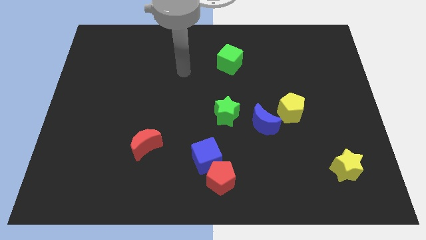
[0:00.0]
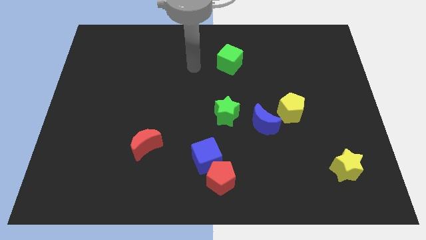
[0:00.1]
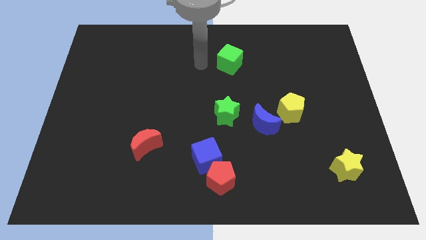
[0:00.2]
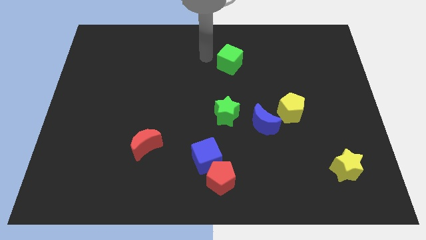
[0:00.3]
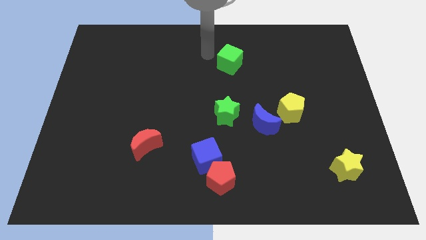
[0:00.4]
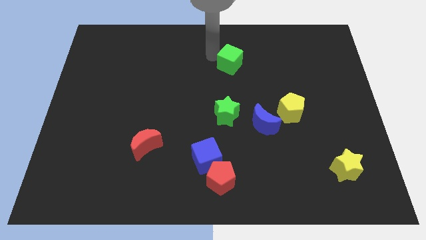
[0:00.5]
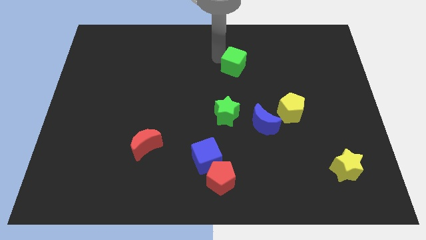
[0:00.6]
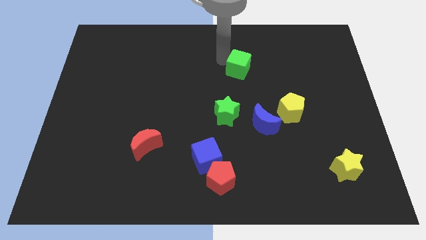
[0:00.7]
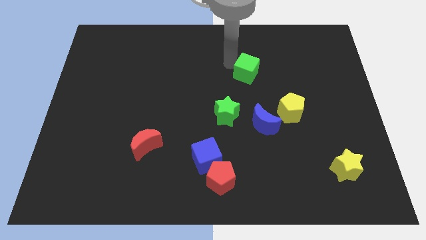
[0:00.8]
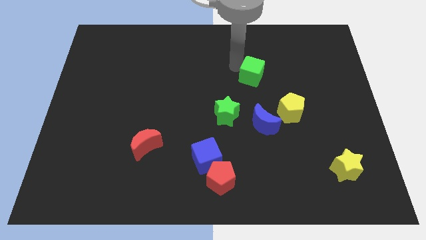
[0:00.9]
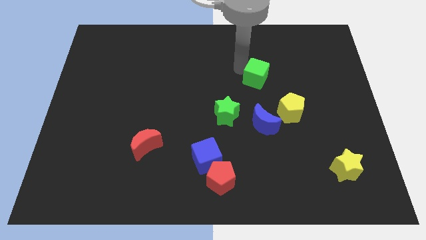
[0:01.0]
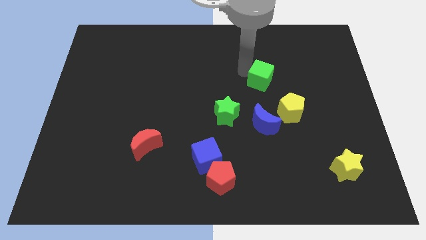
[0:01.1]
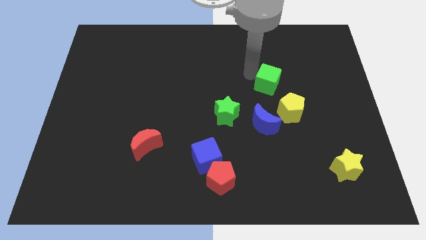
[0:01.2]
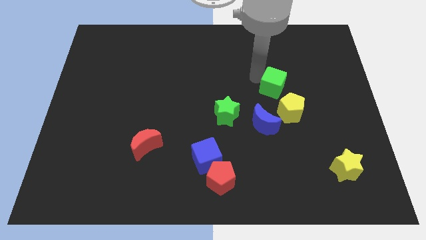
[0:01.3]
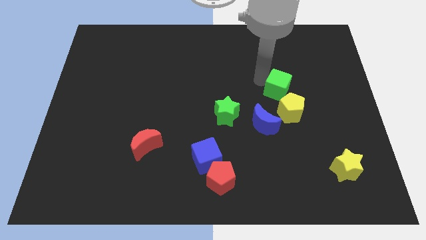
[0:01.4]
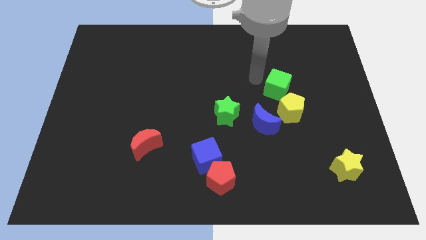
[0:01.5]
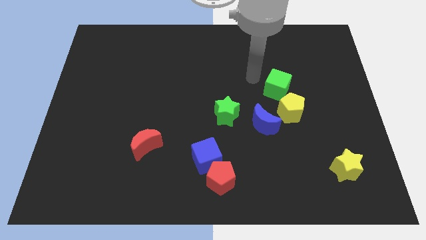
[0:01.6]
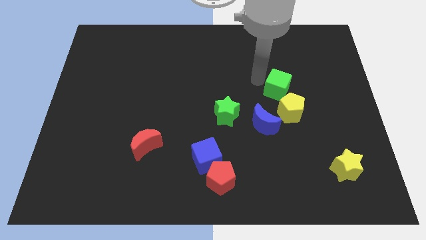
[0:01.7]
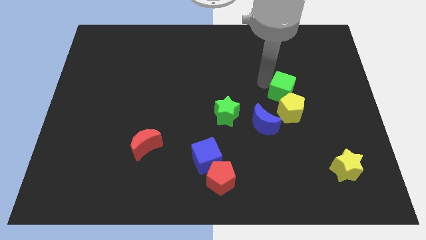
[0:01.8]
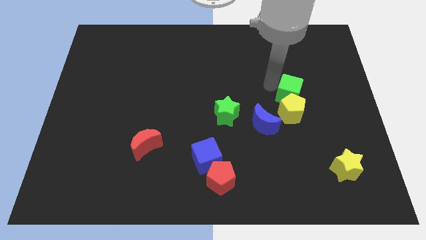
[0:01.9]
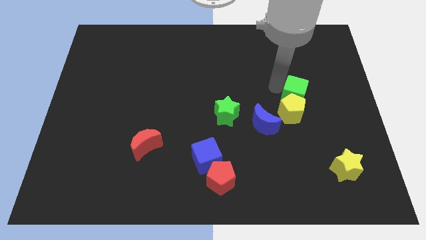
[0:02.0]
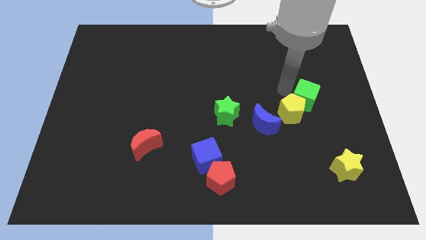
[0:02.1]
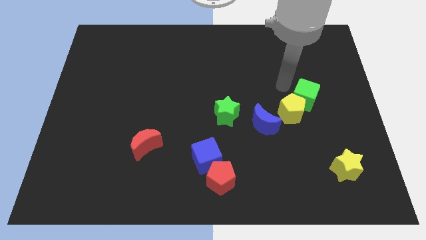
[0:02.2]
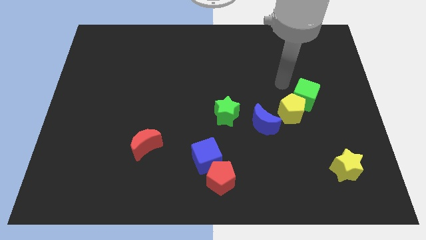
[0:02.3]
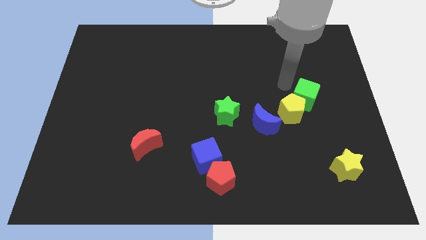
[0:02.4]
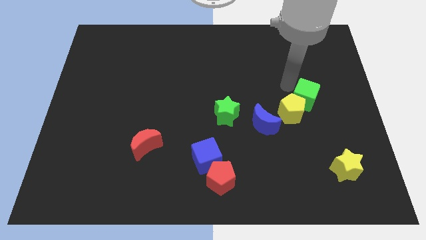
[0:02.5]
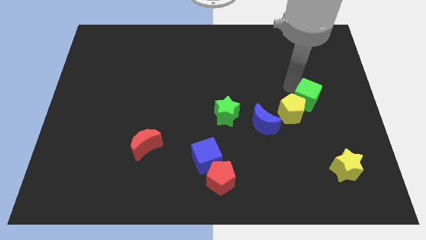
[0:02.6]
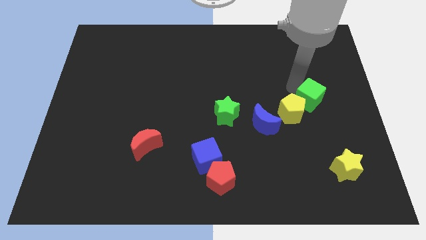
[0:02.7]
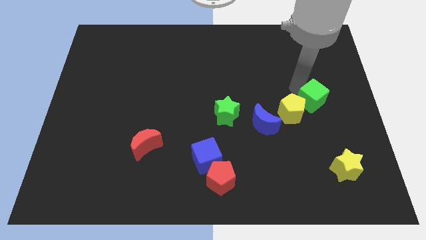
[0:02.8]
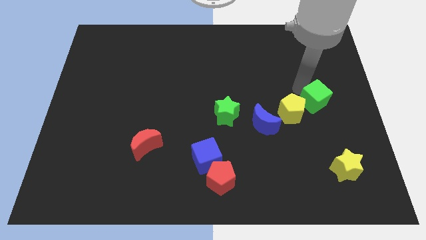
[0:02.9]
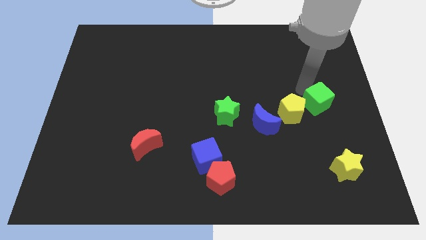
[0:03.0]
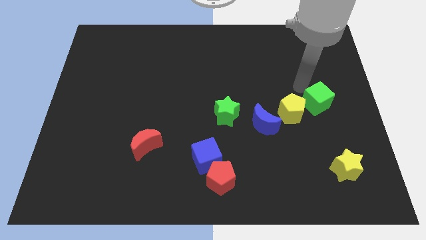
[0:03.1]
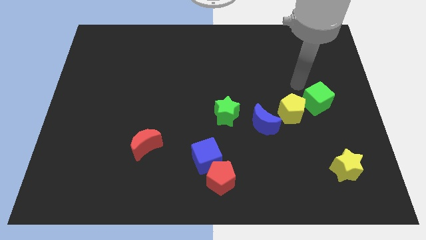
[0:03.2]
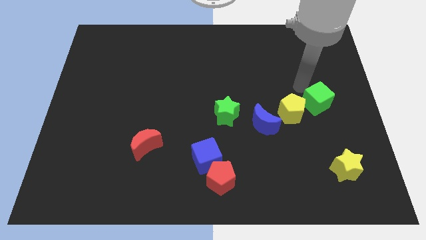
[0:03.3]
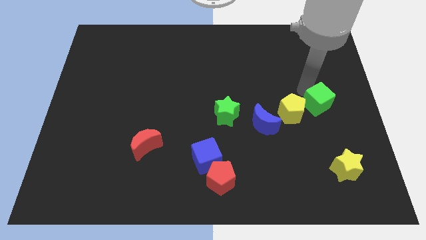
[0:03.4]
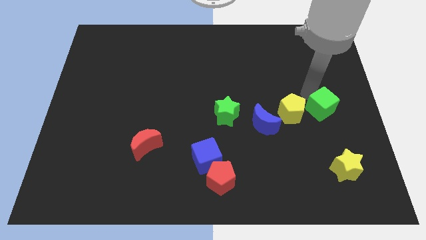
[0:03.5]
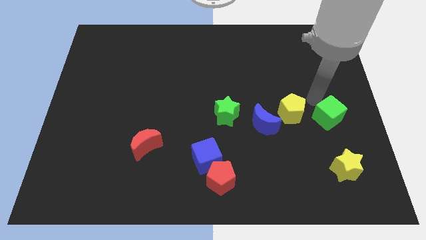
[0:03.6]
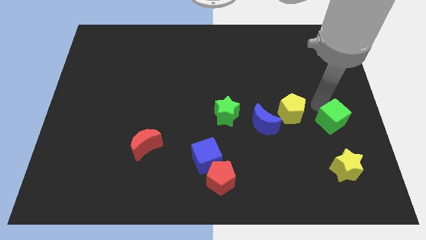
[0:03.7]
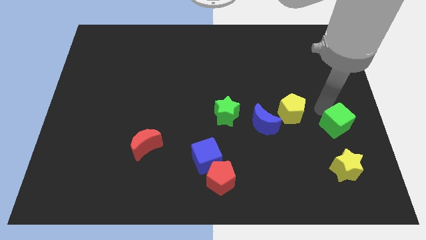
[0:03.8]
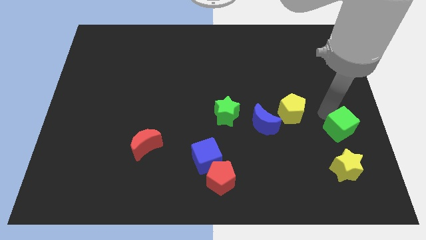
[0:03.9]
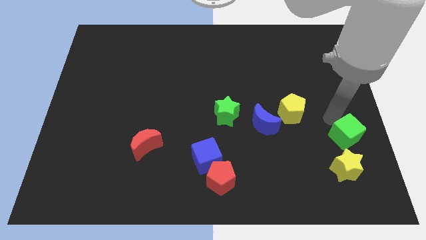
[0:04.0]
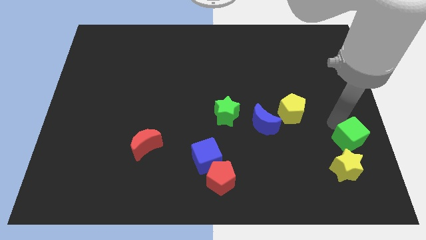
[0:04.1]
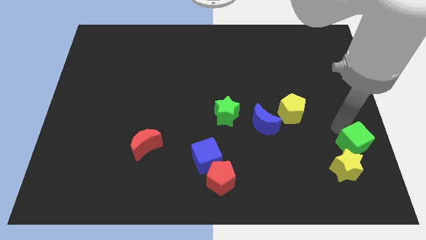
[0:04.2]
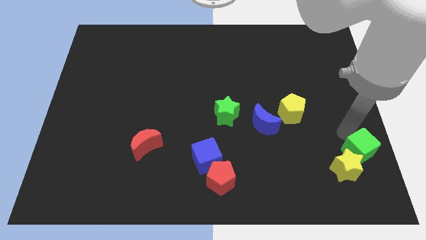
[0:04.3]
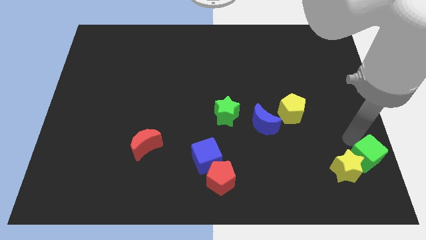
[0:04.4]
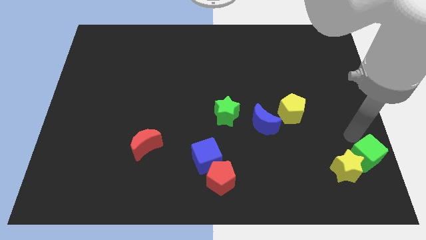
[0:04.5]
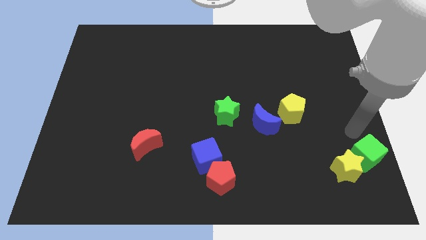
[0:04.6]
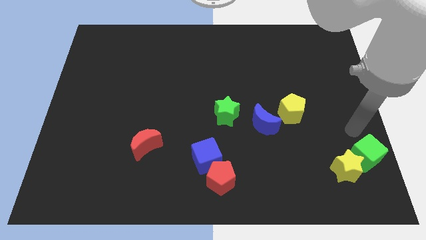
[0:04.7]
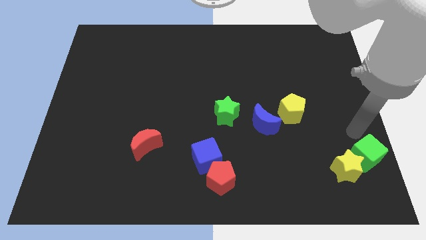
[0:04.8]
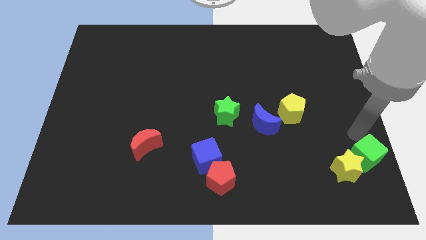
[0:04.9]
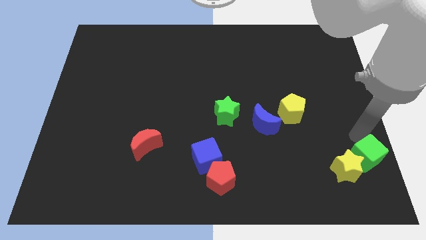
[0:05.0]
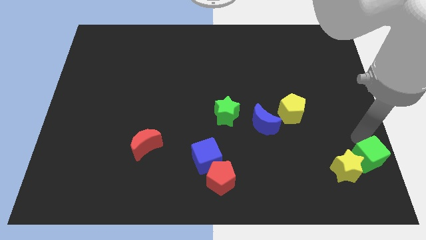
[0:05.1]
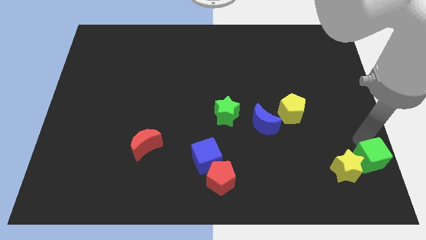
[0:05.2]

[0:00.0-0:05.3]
move the green cube to the bottom right of the board

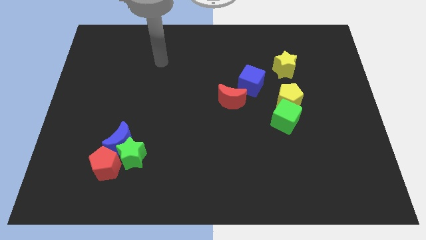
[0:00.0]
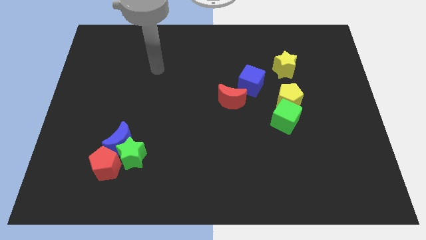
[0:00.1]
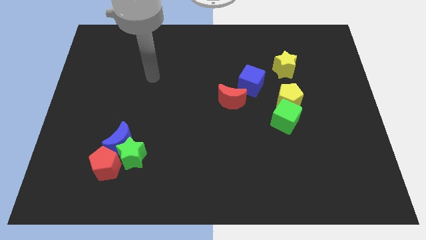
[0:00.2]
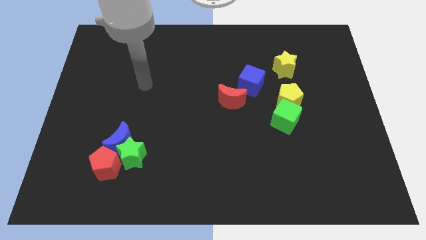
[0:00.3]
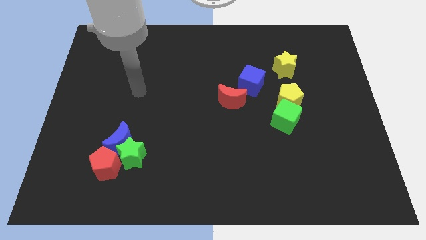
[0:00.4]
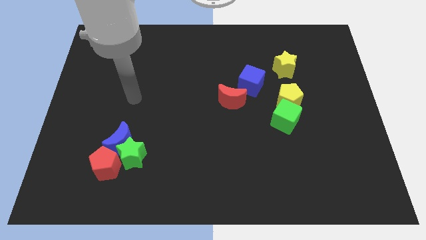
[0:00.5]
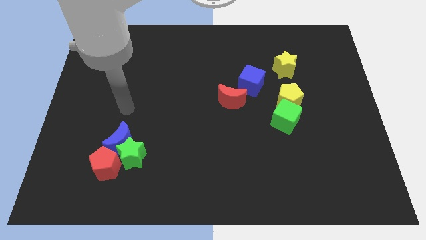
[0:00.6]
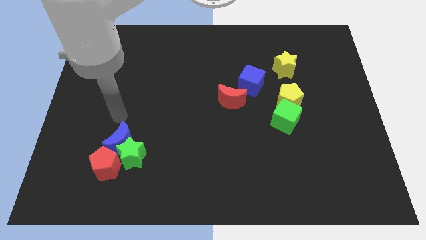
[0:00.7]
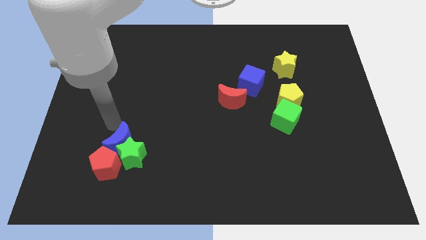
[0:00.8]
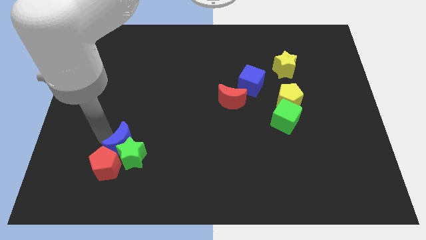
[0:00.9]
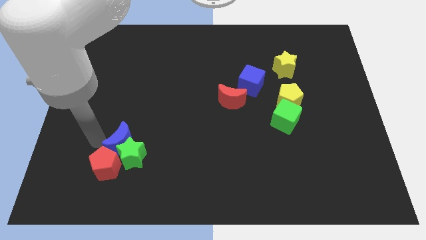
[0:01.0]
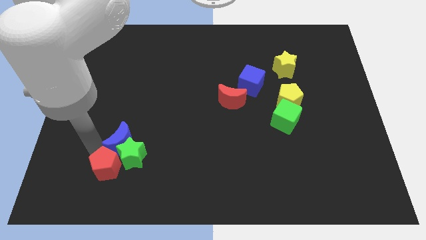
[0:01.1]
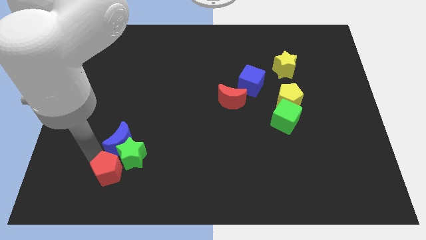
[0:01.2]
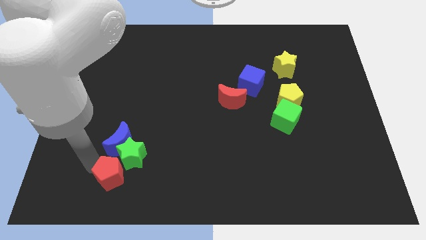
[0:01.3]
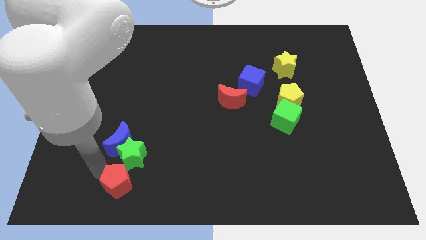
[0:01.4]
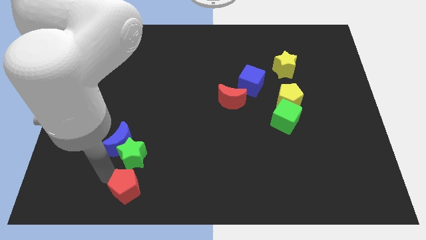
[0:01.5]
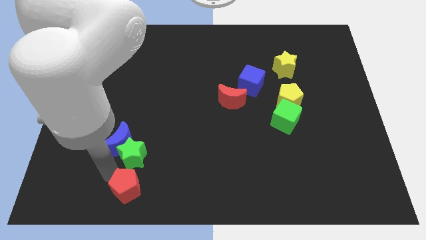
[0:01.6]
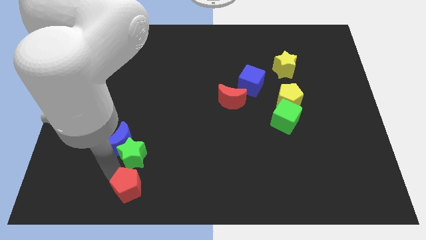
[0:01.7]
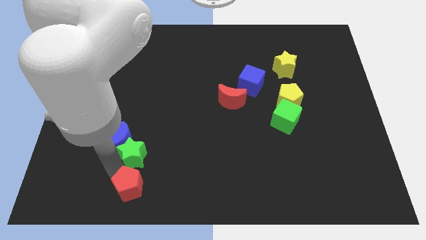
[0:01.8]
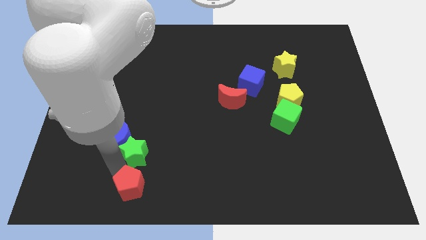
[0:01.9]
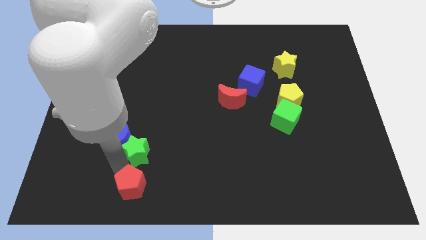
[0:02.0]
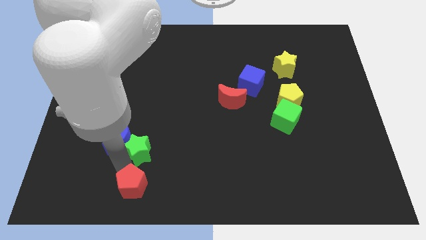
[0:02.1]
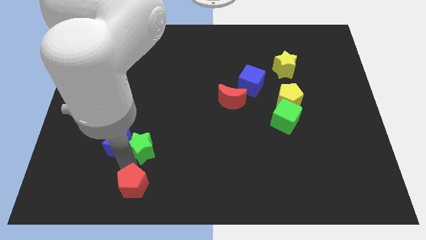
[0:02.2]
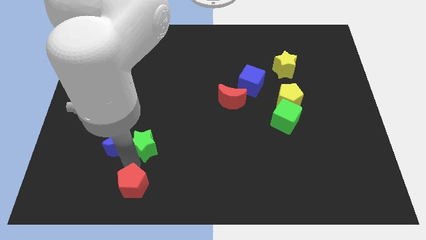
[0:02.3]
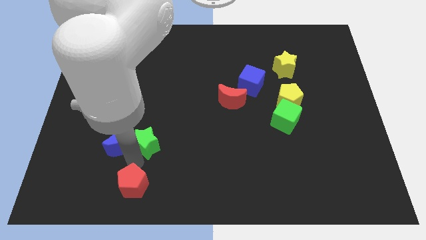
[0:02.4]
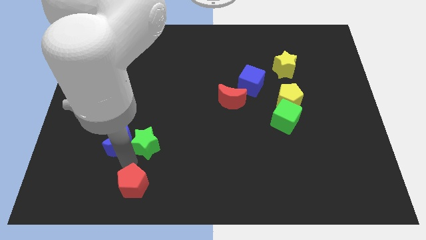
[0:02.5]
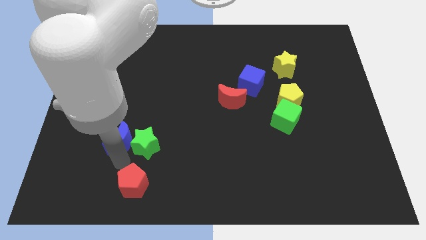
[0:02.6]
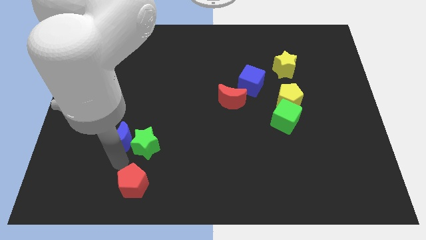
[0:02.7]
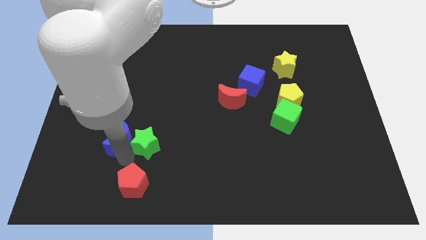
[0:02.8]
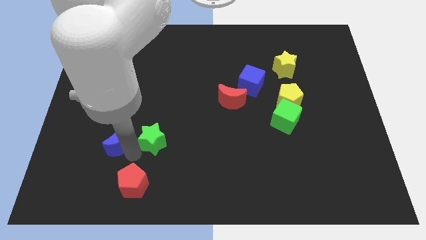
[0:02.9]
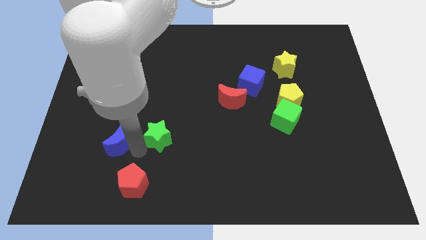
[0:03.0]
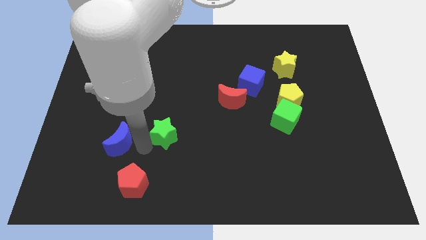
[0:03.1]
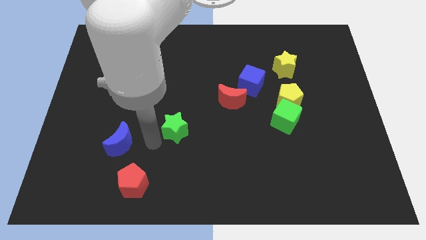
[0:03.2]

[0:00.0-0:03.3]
put the green star to the middle
